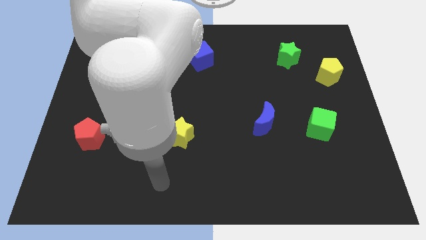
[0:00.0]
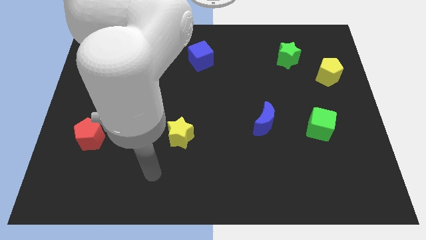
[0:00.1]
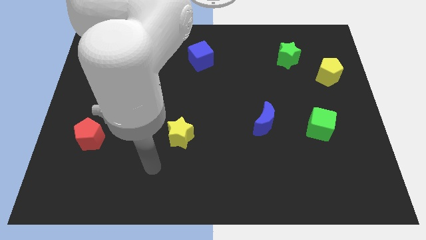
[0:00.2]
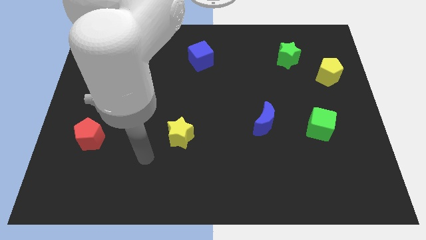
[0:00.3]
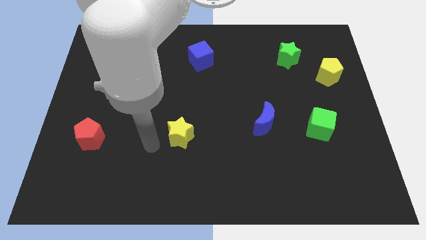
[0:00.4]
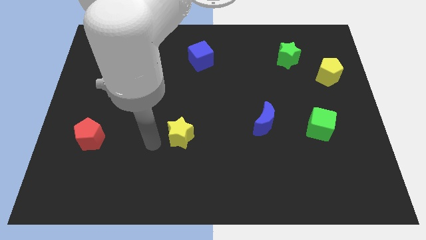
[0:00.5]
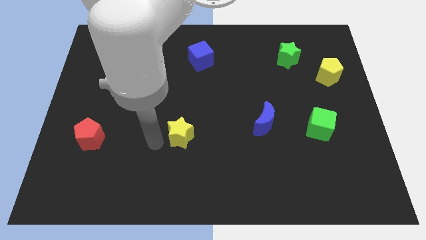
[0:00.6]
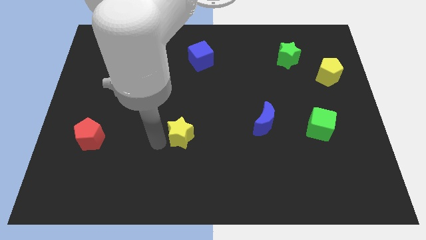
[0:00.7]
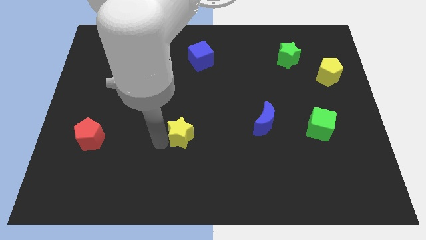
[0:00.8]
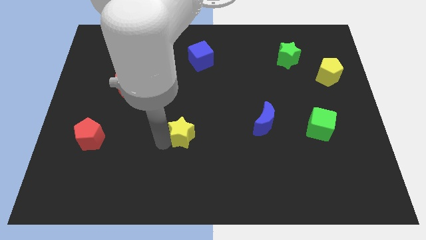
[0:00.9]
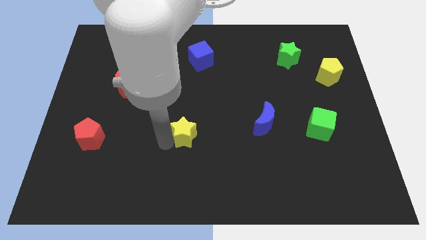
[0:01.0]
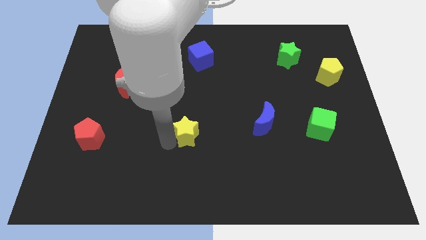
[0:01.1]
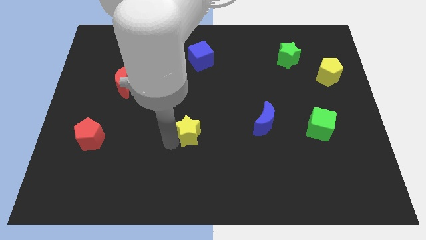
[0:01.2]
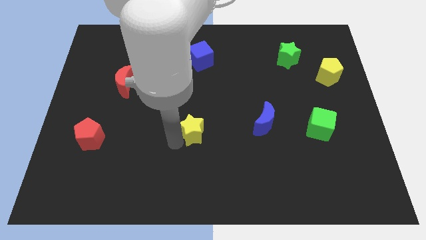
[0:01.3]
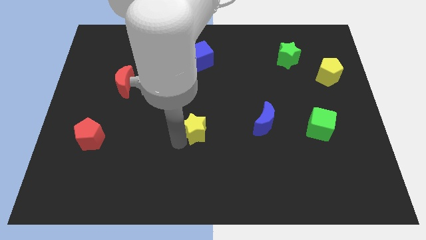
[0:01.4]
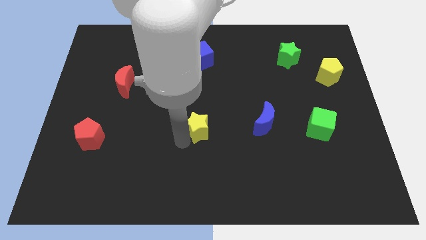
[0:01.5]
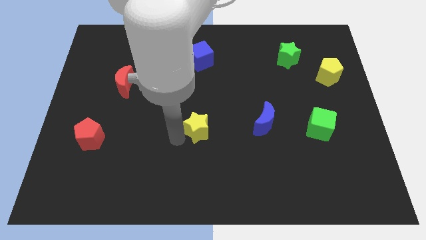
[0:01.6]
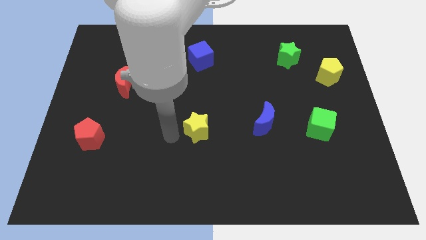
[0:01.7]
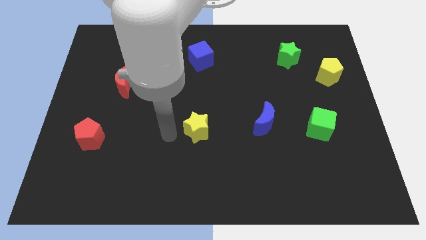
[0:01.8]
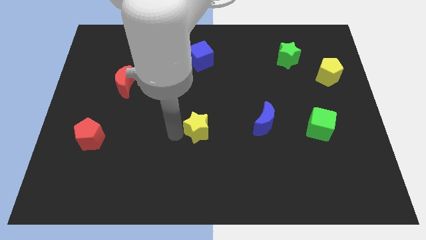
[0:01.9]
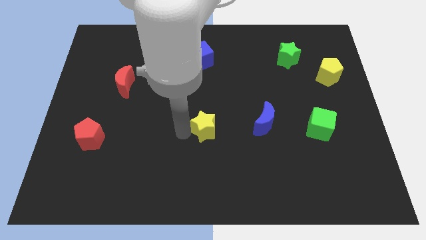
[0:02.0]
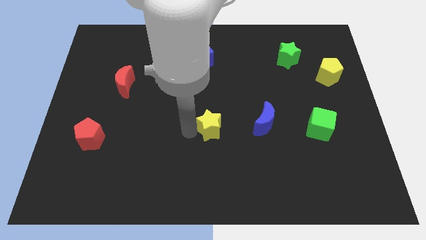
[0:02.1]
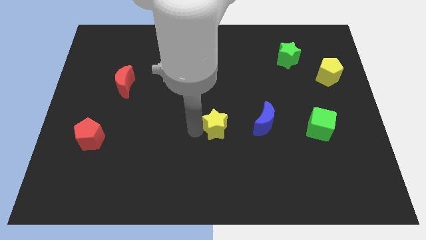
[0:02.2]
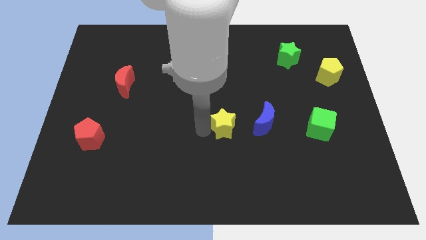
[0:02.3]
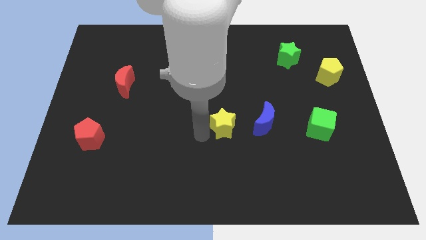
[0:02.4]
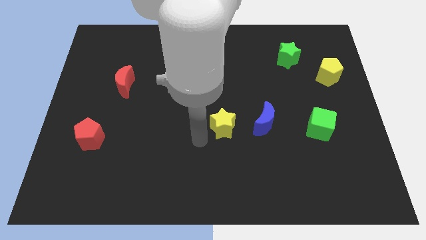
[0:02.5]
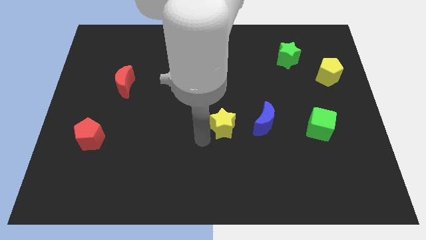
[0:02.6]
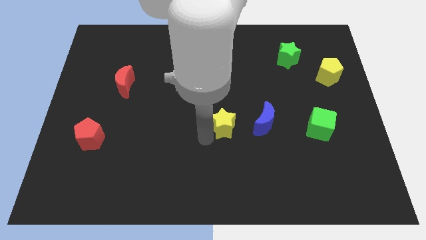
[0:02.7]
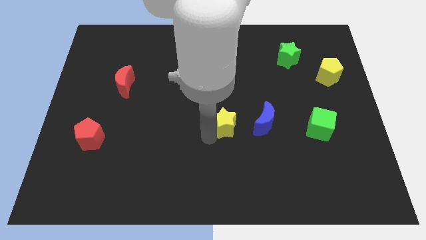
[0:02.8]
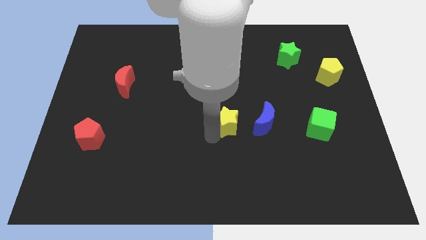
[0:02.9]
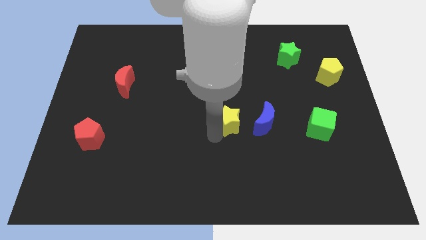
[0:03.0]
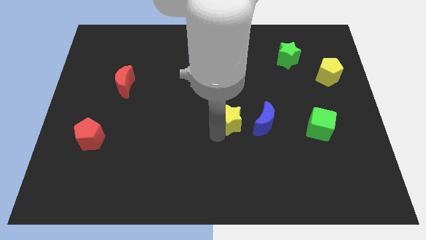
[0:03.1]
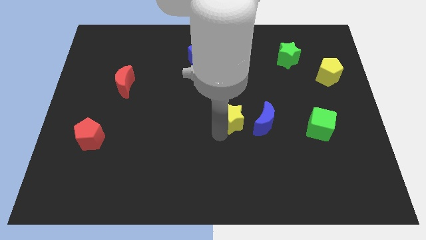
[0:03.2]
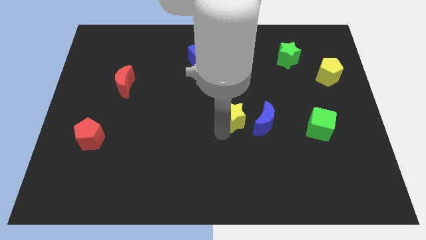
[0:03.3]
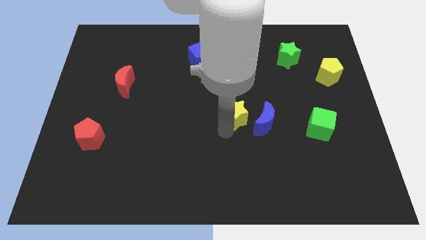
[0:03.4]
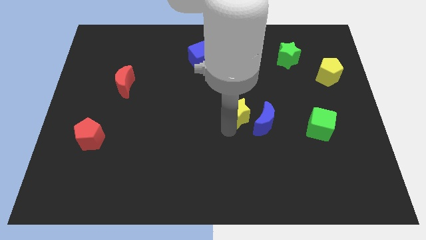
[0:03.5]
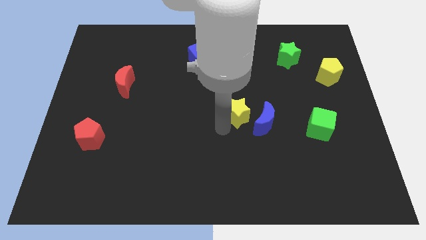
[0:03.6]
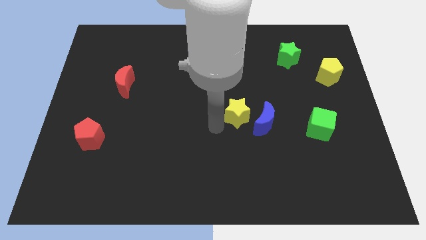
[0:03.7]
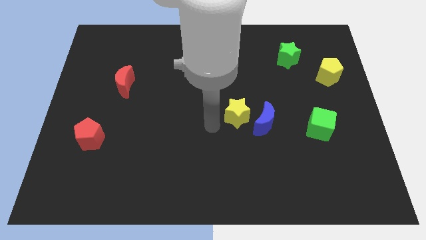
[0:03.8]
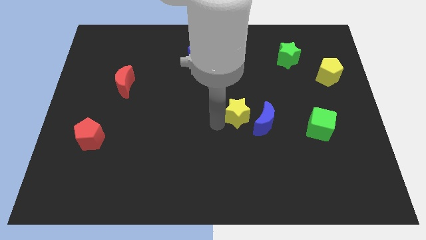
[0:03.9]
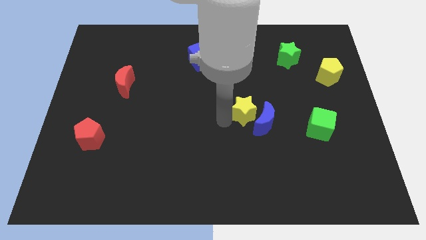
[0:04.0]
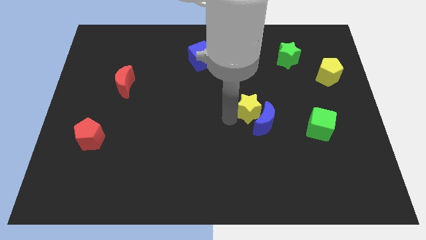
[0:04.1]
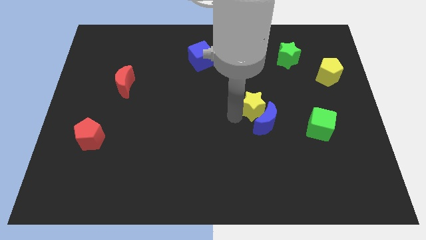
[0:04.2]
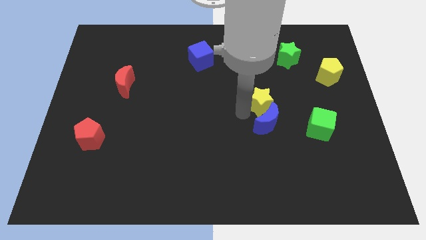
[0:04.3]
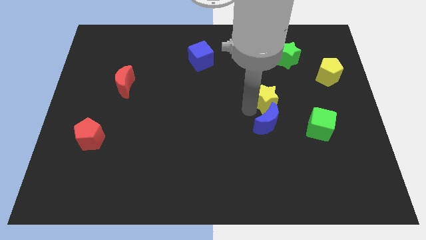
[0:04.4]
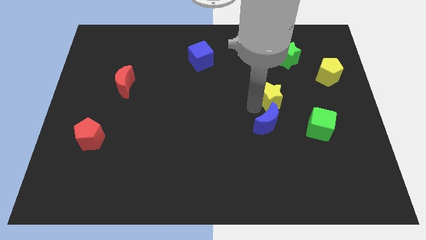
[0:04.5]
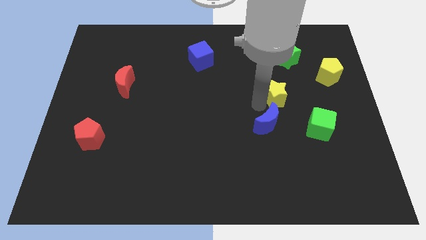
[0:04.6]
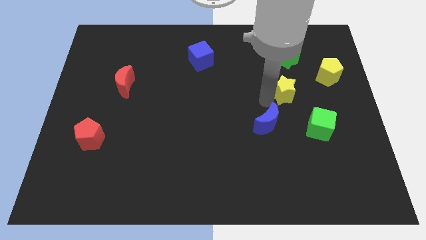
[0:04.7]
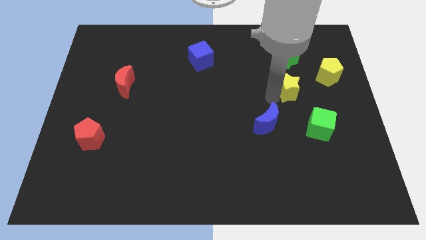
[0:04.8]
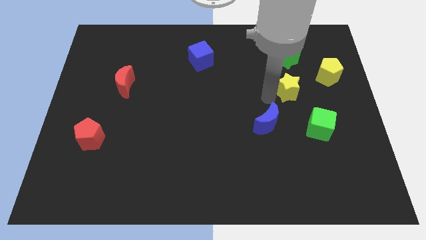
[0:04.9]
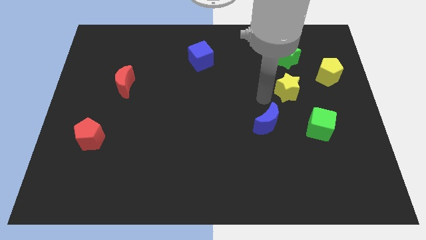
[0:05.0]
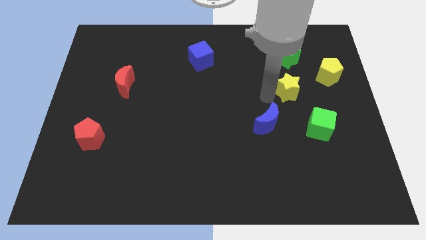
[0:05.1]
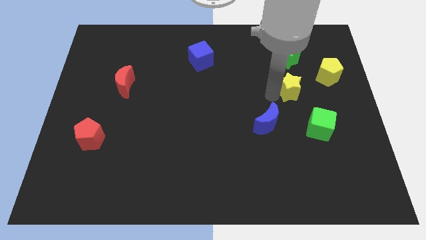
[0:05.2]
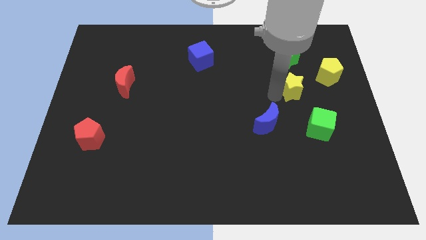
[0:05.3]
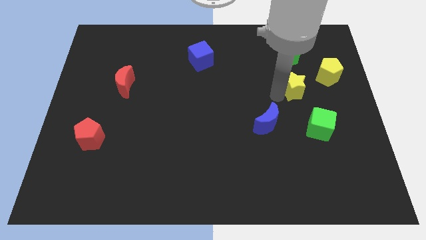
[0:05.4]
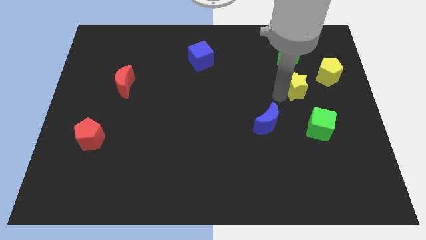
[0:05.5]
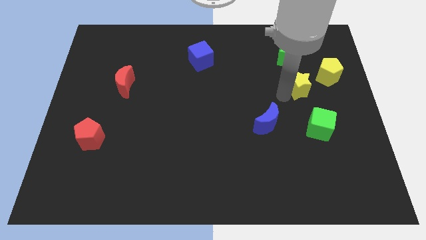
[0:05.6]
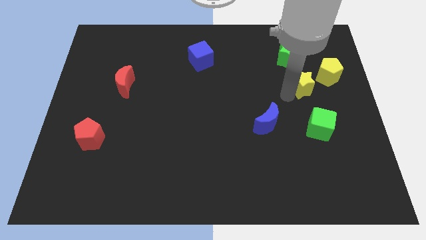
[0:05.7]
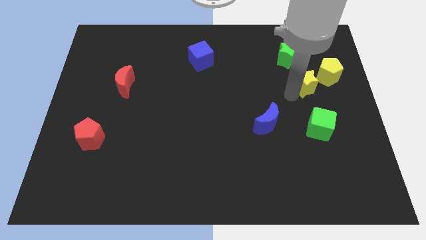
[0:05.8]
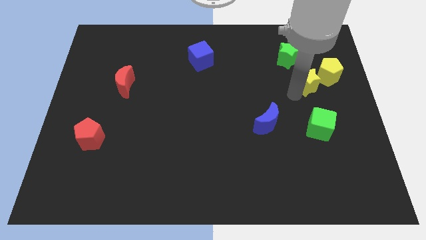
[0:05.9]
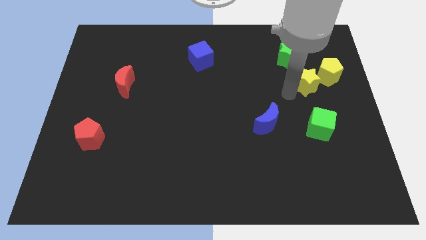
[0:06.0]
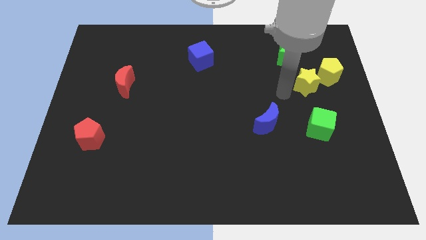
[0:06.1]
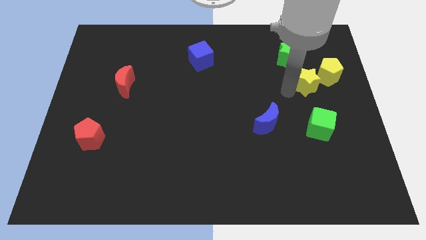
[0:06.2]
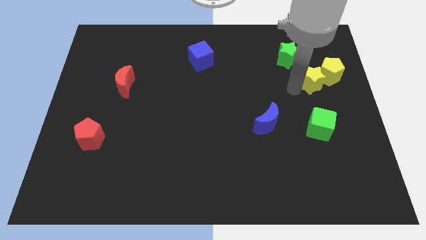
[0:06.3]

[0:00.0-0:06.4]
slide the yellow star next to the yellow pentagon

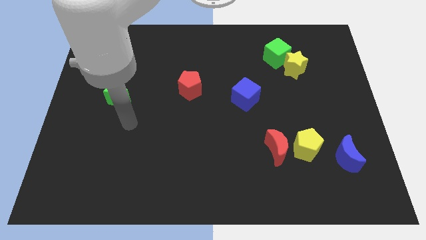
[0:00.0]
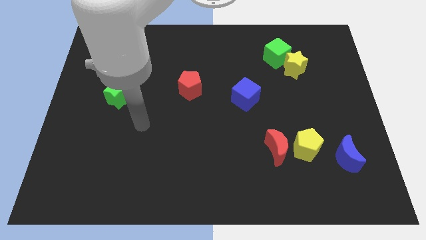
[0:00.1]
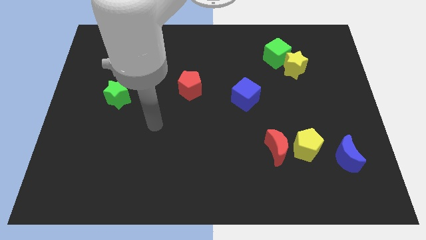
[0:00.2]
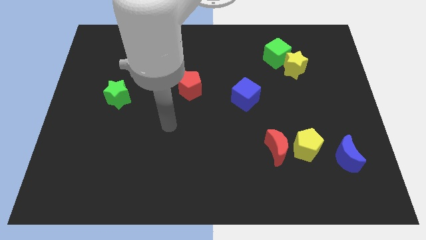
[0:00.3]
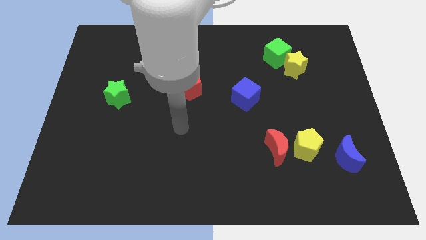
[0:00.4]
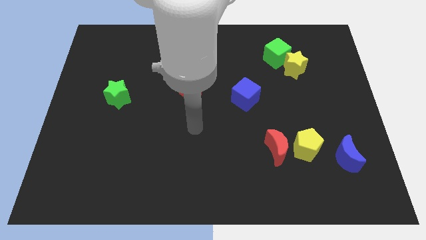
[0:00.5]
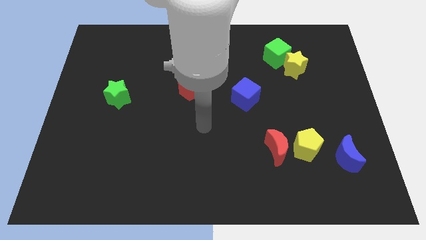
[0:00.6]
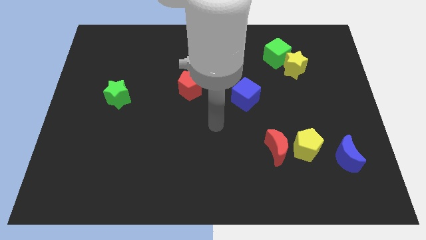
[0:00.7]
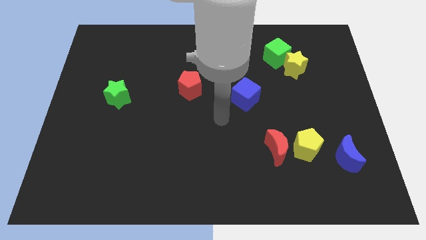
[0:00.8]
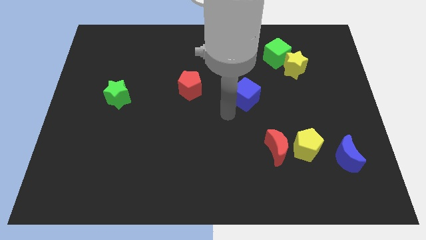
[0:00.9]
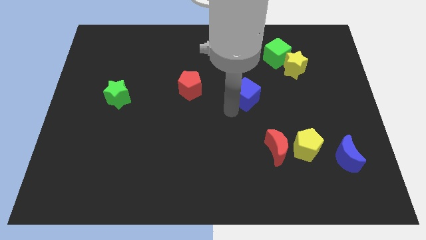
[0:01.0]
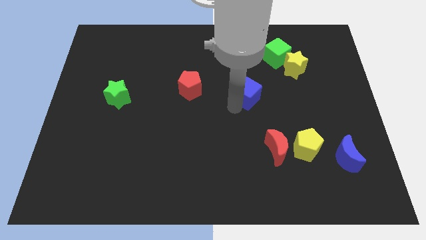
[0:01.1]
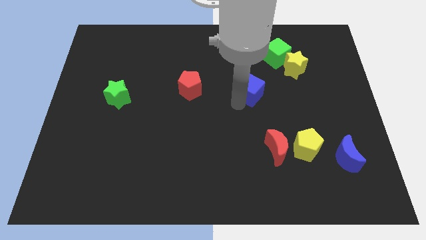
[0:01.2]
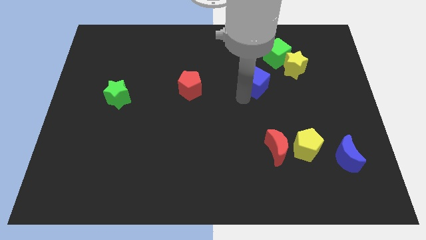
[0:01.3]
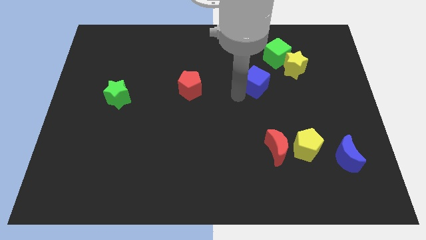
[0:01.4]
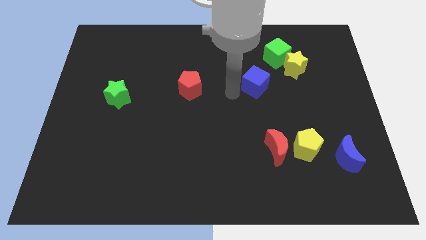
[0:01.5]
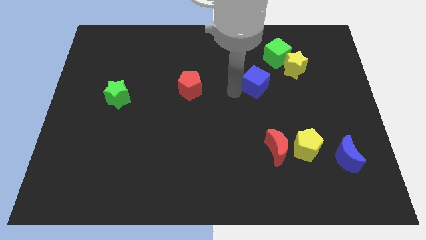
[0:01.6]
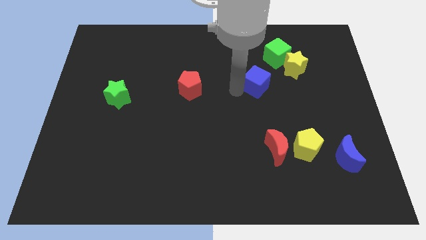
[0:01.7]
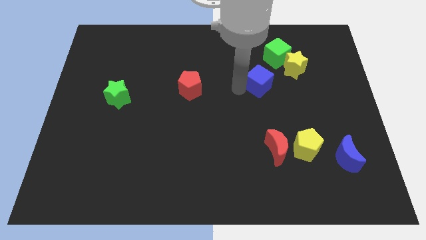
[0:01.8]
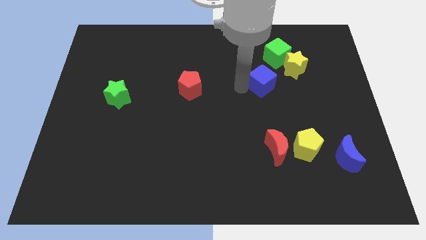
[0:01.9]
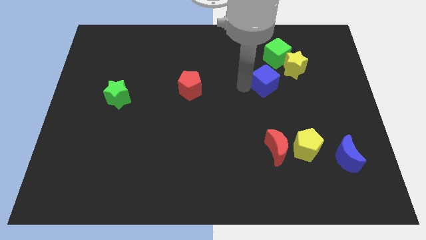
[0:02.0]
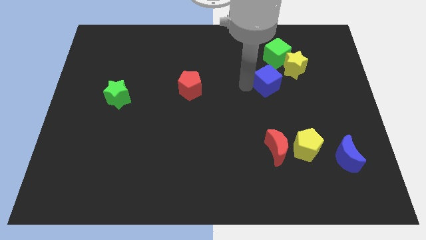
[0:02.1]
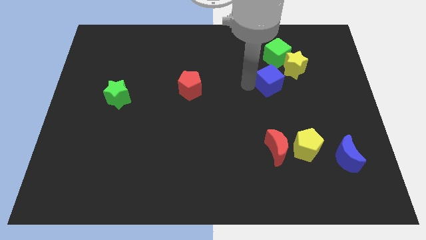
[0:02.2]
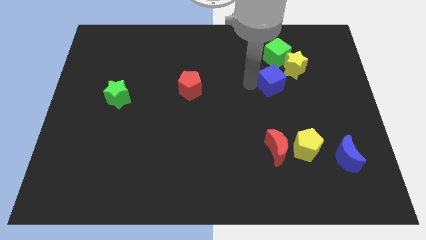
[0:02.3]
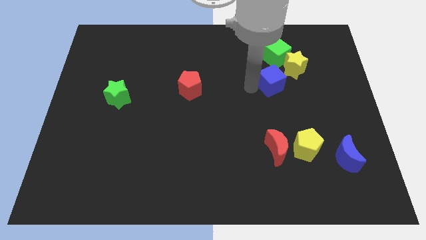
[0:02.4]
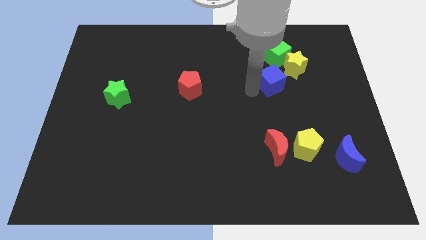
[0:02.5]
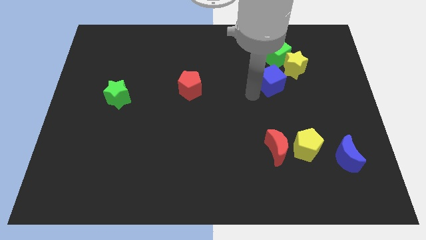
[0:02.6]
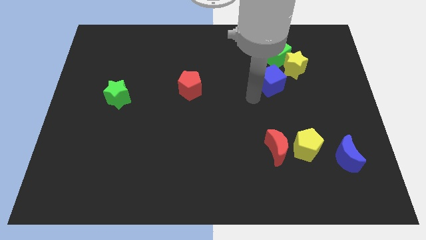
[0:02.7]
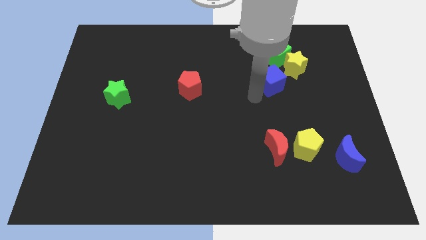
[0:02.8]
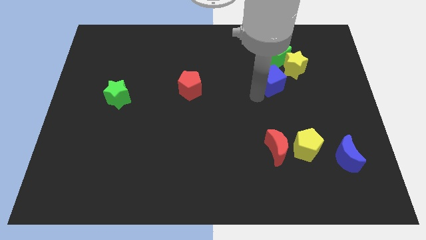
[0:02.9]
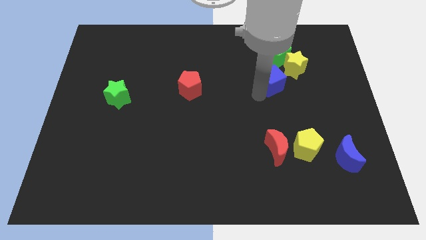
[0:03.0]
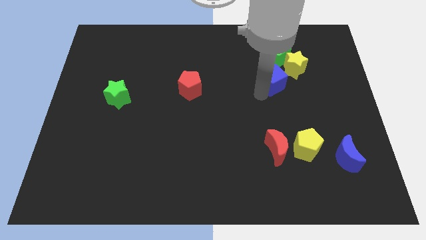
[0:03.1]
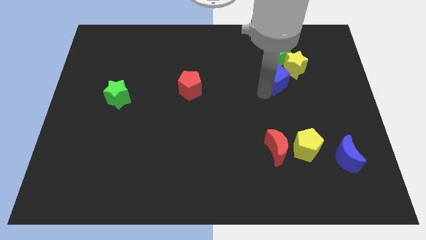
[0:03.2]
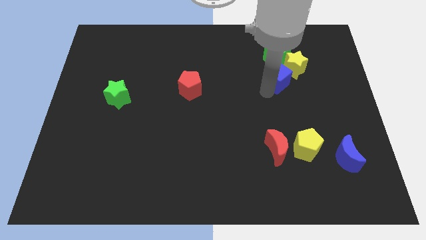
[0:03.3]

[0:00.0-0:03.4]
put the blue cube close to the yellow star
